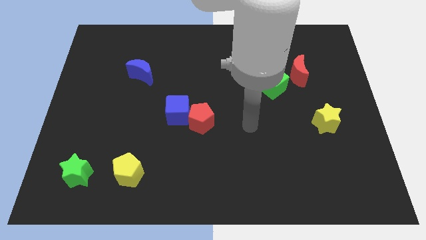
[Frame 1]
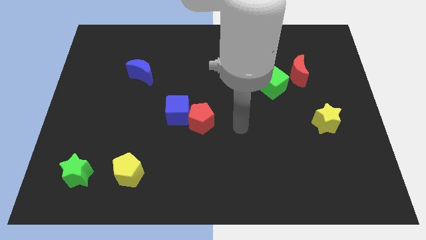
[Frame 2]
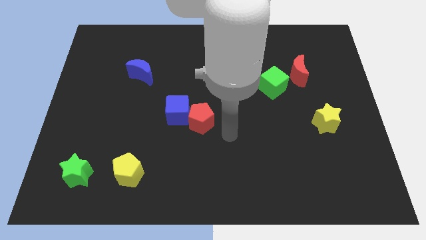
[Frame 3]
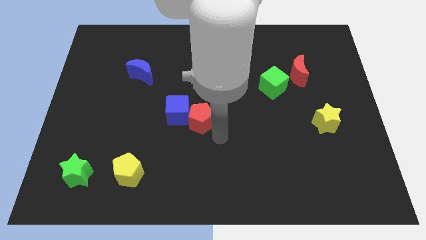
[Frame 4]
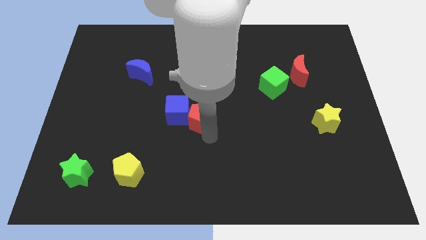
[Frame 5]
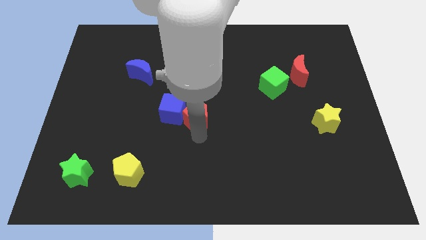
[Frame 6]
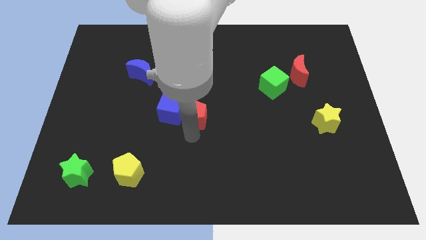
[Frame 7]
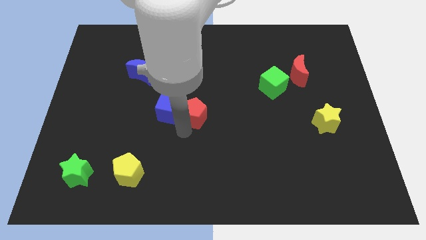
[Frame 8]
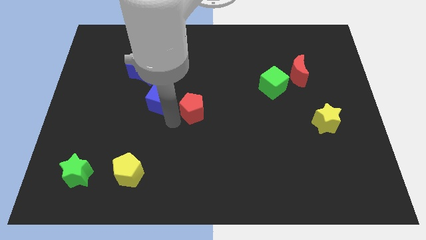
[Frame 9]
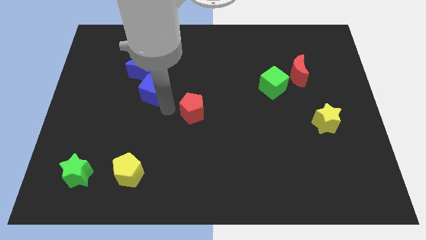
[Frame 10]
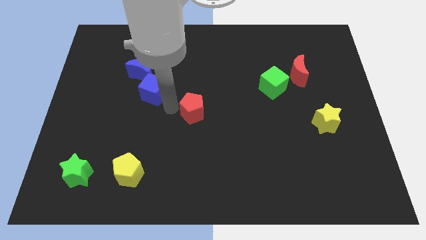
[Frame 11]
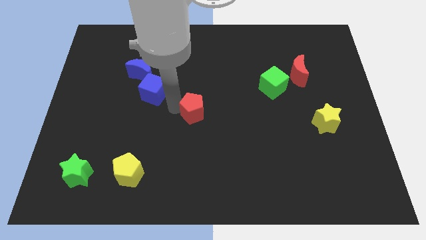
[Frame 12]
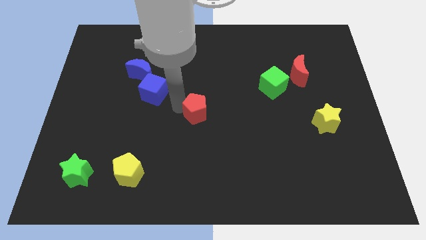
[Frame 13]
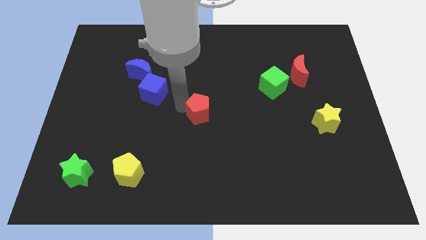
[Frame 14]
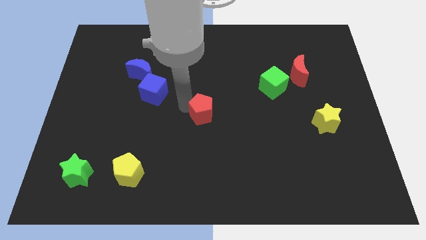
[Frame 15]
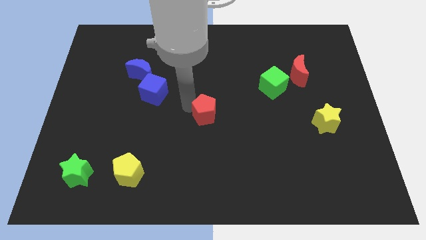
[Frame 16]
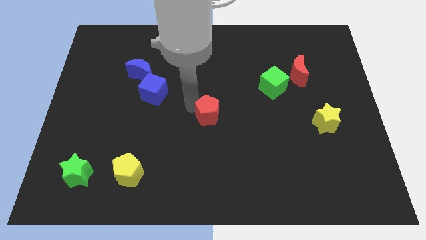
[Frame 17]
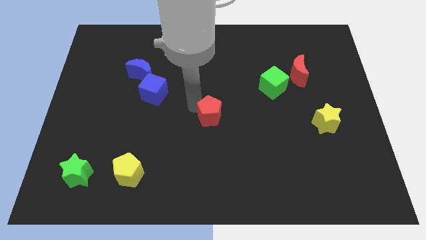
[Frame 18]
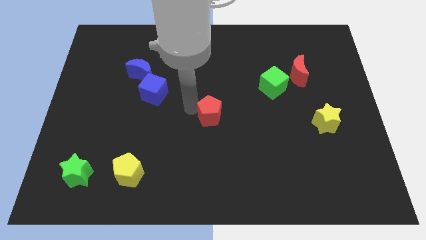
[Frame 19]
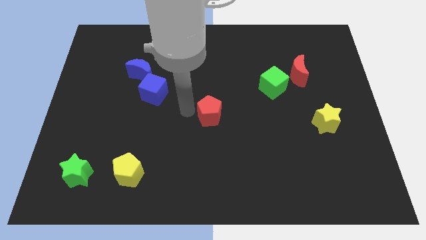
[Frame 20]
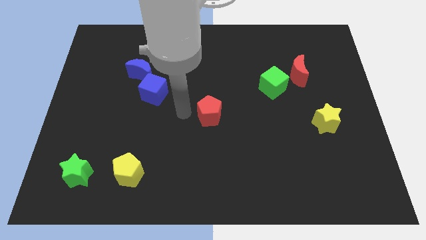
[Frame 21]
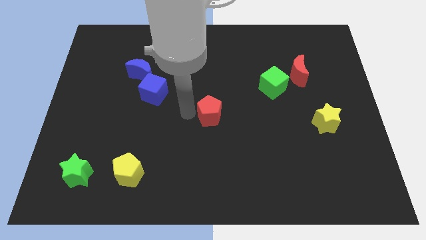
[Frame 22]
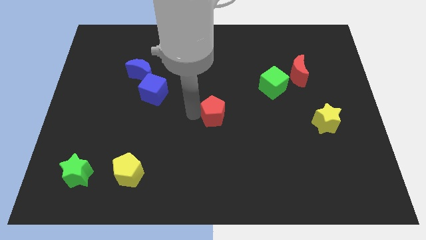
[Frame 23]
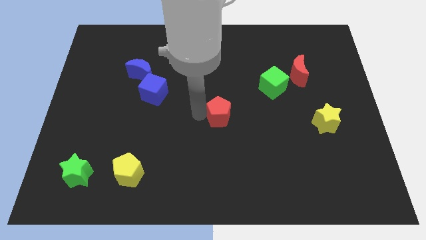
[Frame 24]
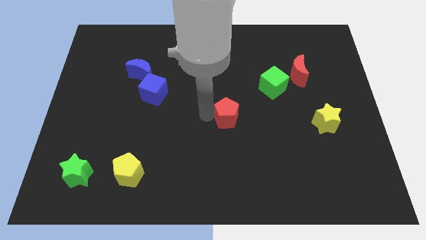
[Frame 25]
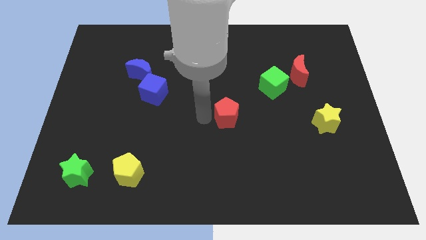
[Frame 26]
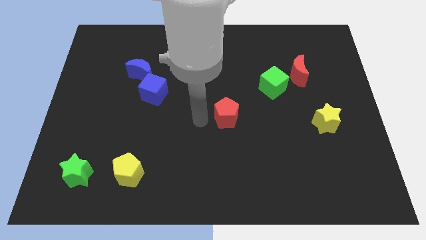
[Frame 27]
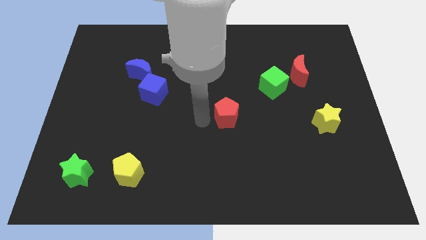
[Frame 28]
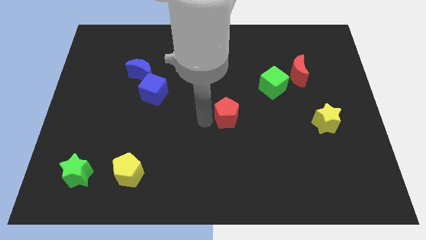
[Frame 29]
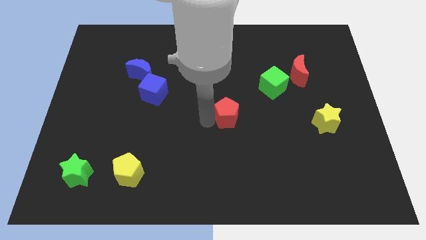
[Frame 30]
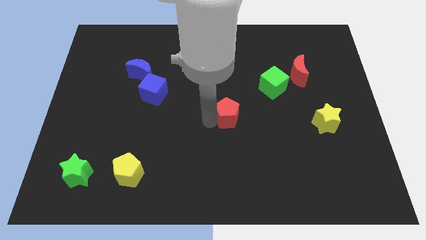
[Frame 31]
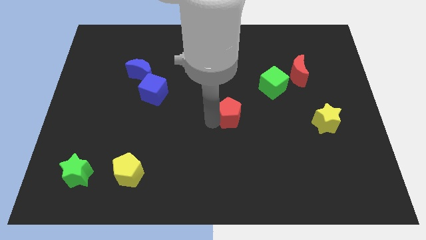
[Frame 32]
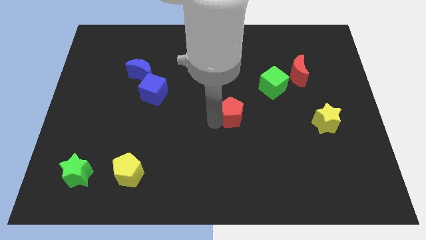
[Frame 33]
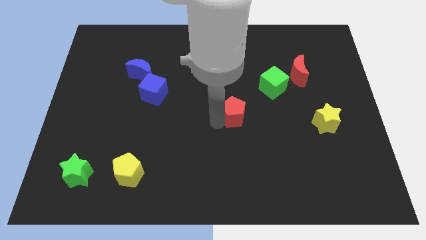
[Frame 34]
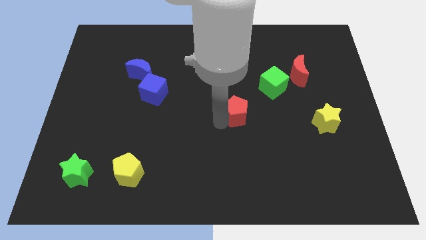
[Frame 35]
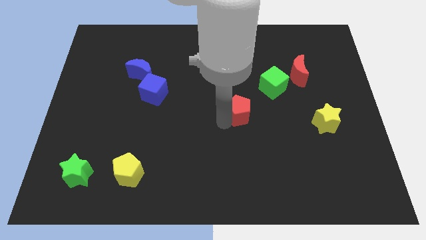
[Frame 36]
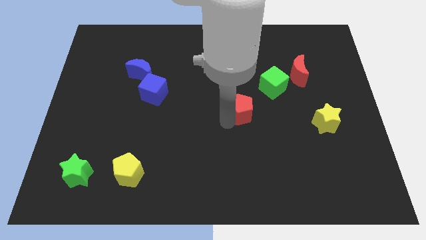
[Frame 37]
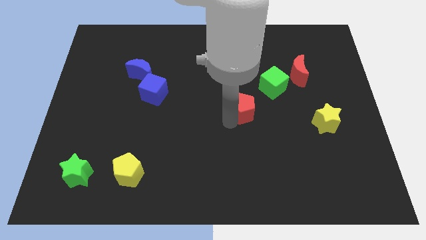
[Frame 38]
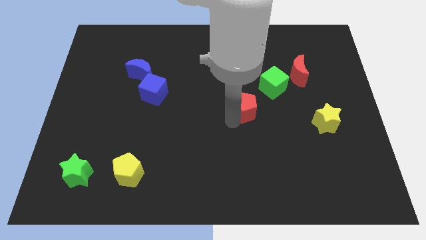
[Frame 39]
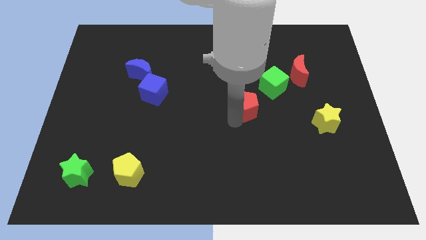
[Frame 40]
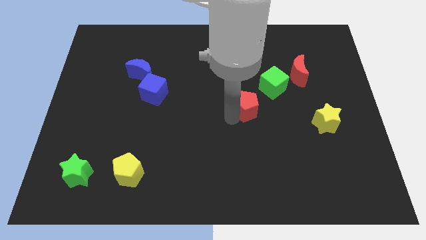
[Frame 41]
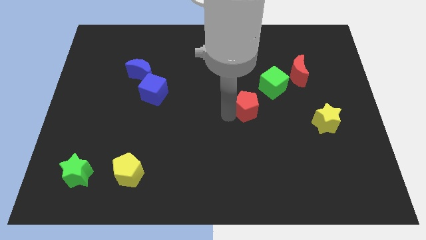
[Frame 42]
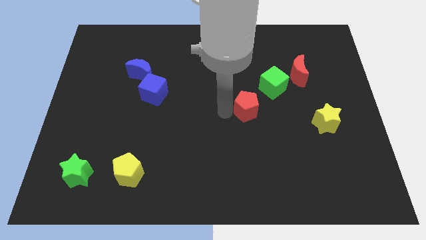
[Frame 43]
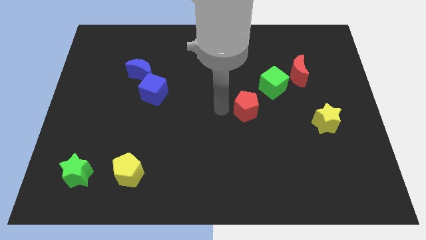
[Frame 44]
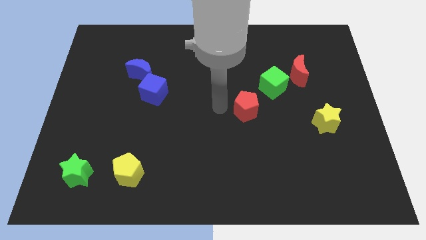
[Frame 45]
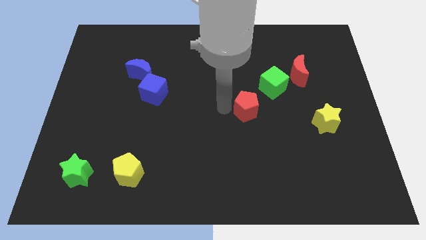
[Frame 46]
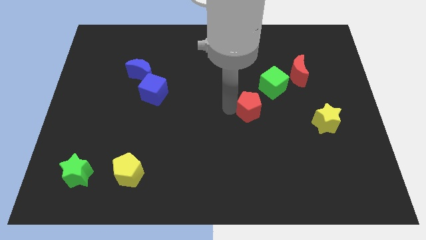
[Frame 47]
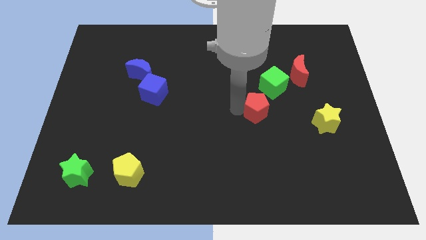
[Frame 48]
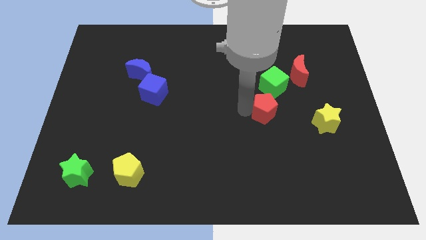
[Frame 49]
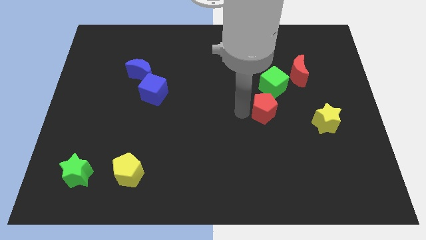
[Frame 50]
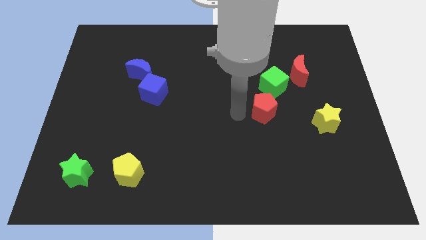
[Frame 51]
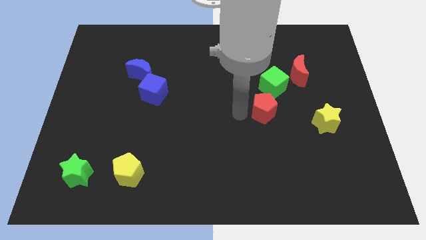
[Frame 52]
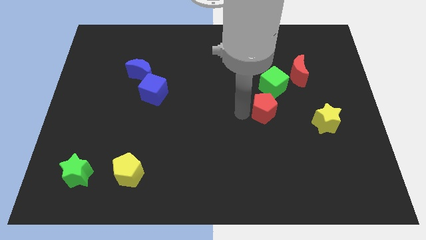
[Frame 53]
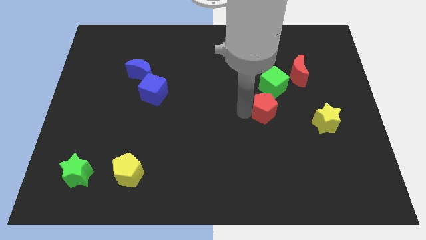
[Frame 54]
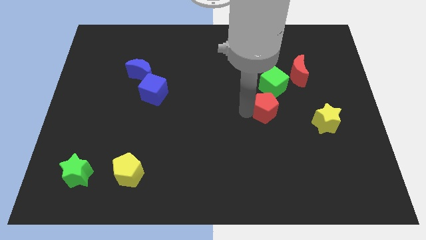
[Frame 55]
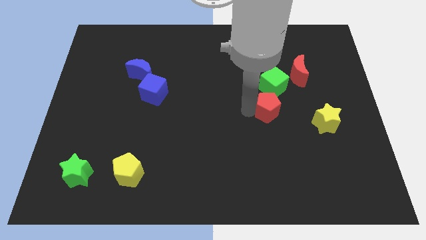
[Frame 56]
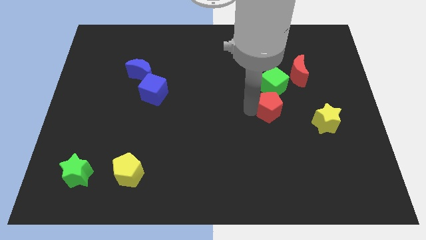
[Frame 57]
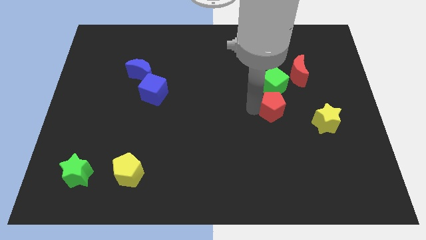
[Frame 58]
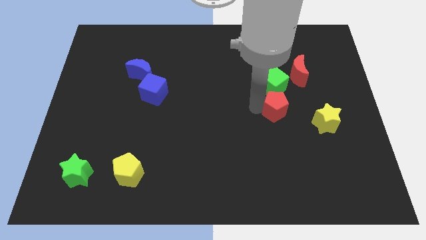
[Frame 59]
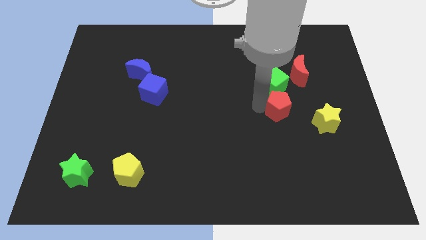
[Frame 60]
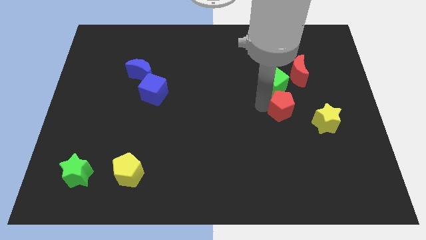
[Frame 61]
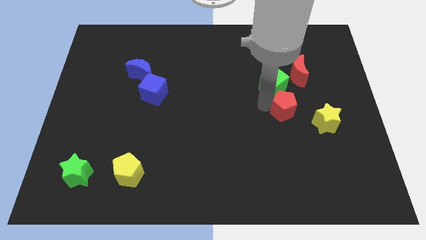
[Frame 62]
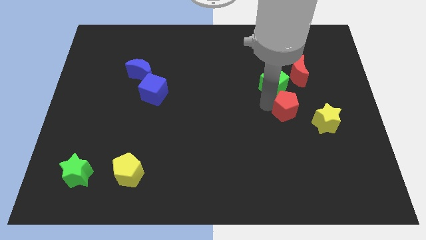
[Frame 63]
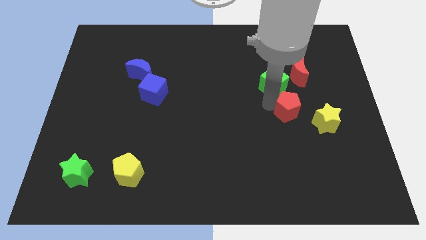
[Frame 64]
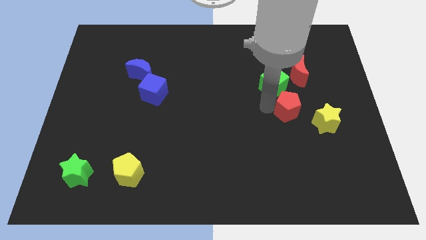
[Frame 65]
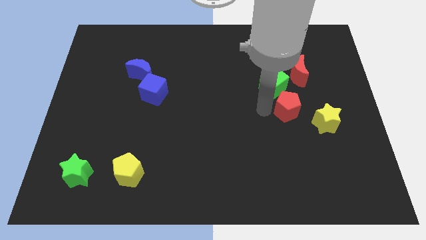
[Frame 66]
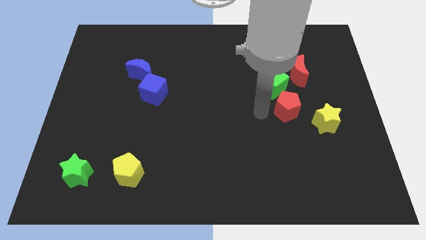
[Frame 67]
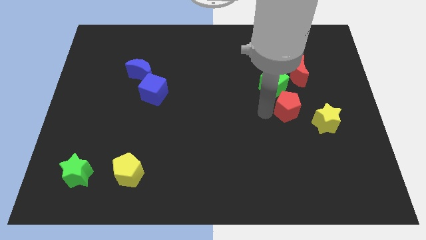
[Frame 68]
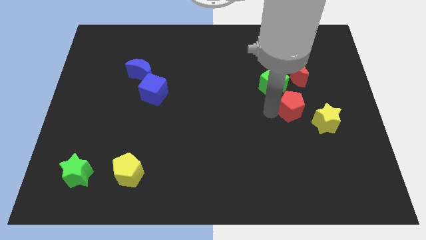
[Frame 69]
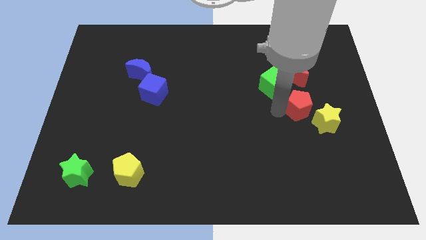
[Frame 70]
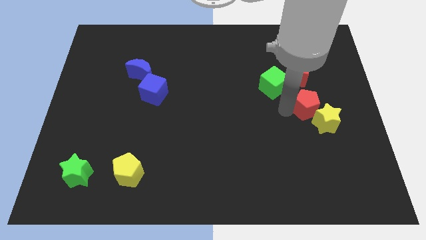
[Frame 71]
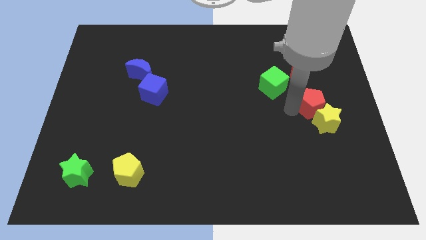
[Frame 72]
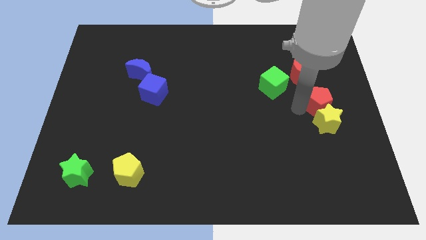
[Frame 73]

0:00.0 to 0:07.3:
move the red pentagon to the right side
